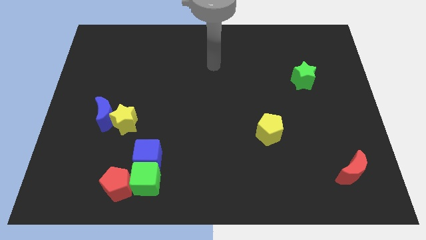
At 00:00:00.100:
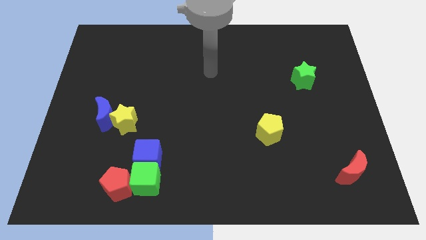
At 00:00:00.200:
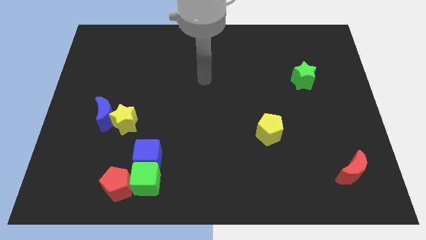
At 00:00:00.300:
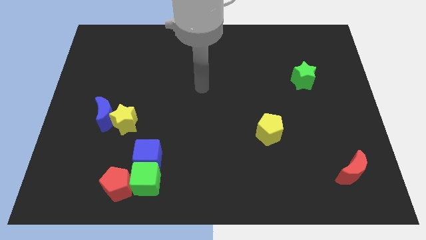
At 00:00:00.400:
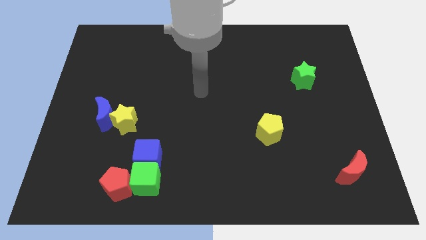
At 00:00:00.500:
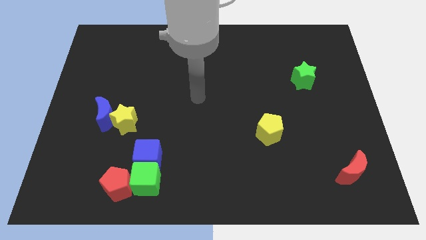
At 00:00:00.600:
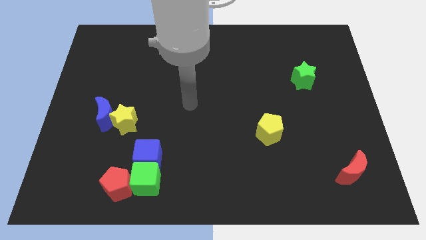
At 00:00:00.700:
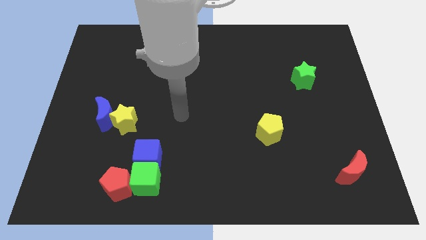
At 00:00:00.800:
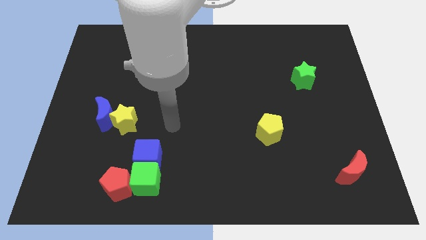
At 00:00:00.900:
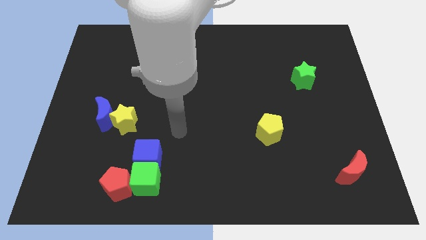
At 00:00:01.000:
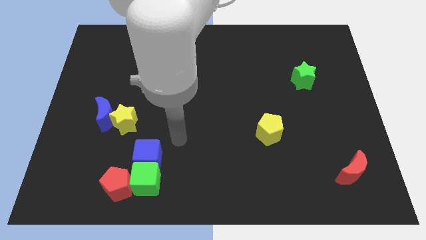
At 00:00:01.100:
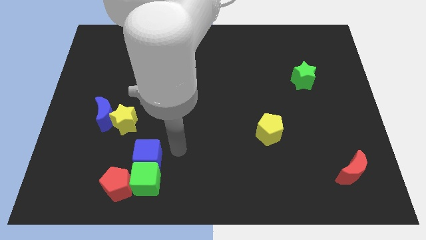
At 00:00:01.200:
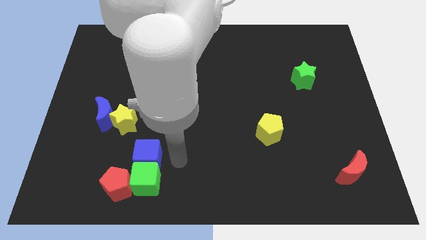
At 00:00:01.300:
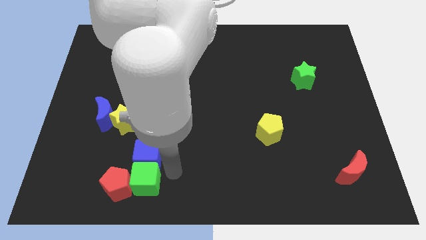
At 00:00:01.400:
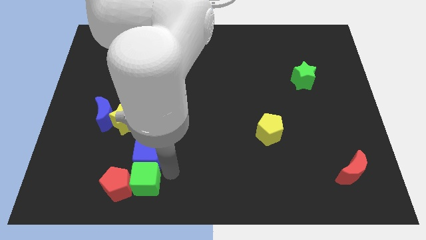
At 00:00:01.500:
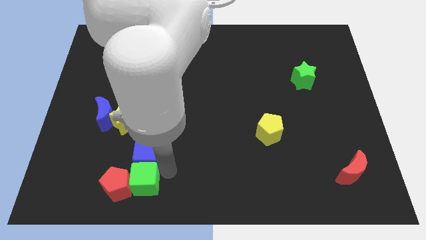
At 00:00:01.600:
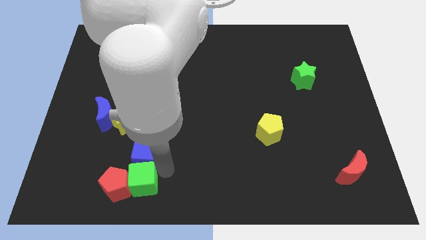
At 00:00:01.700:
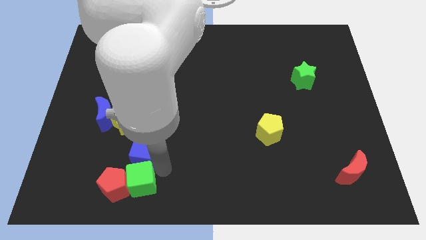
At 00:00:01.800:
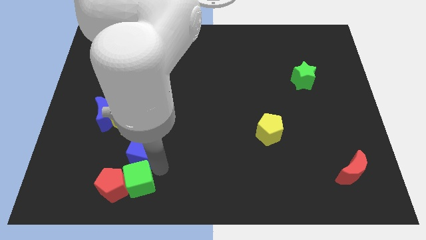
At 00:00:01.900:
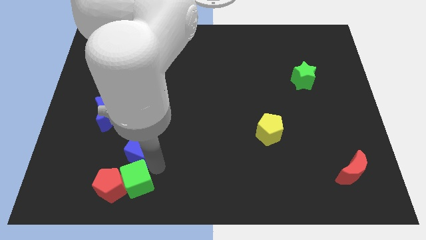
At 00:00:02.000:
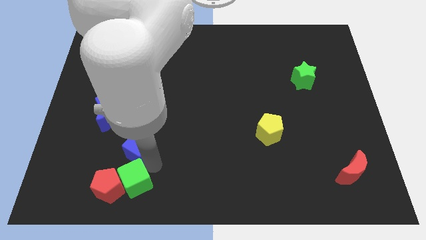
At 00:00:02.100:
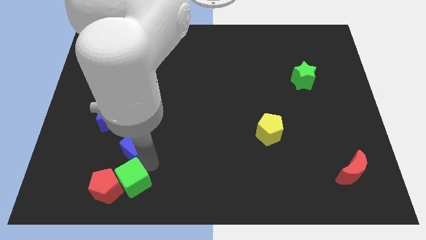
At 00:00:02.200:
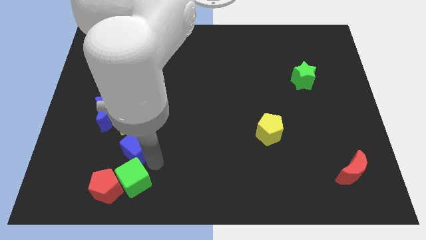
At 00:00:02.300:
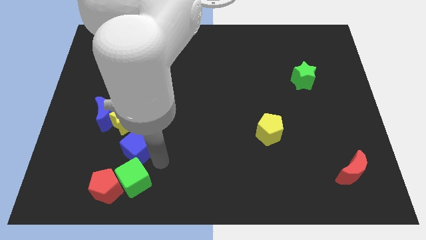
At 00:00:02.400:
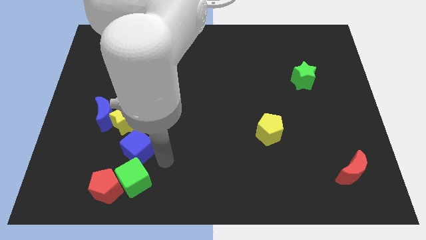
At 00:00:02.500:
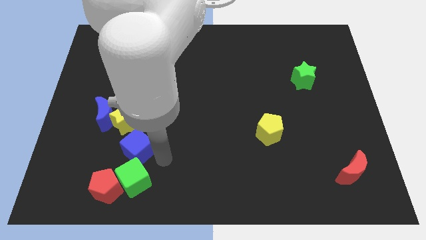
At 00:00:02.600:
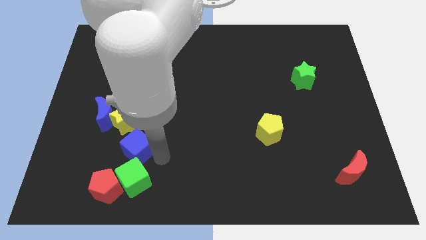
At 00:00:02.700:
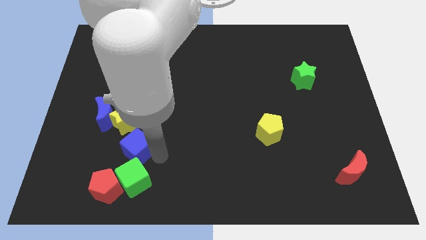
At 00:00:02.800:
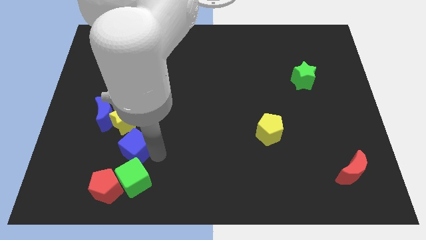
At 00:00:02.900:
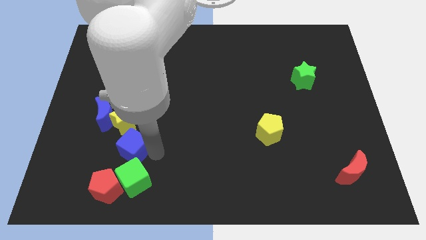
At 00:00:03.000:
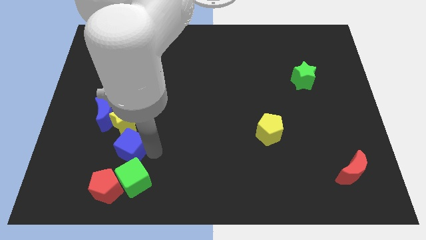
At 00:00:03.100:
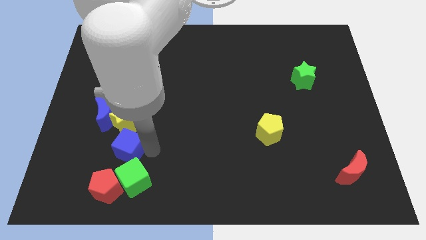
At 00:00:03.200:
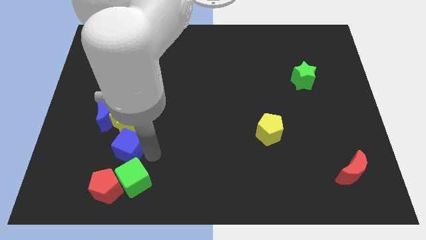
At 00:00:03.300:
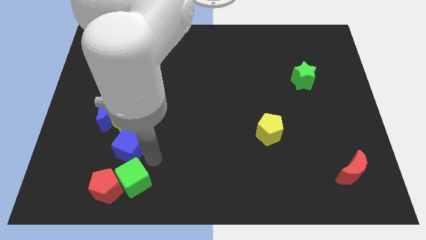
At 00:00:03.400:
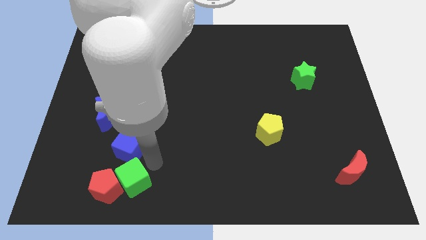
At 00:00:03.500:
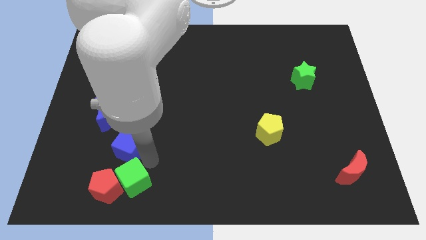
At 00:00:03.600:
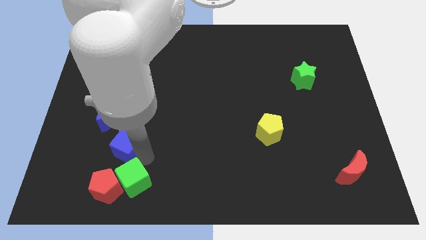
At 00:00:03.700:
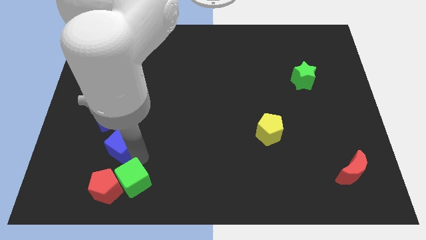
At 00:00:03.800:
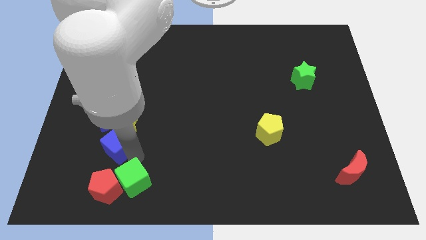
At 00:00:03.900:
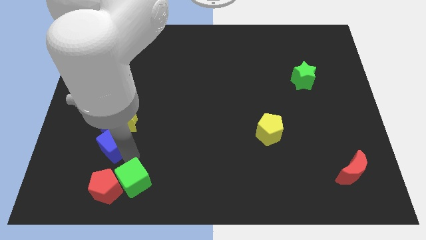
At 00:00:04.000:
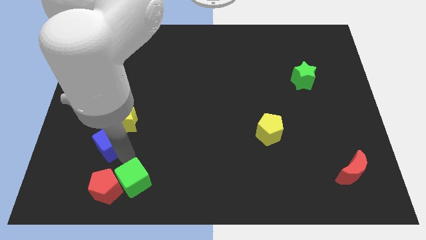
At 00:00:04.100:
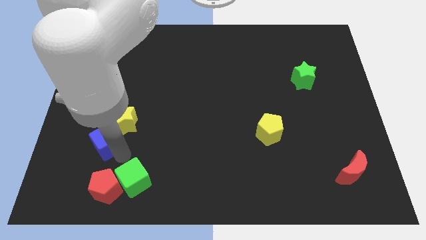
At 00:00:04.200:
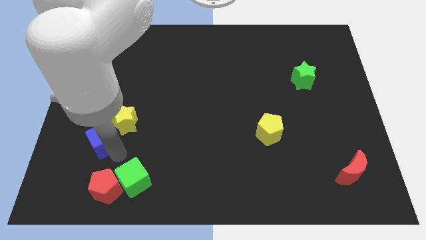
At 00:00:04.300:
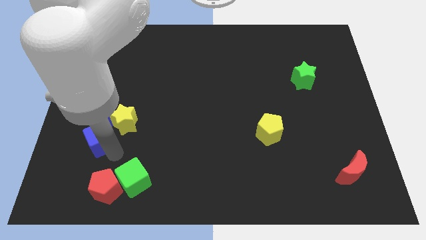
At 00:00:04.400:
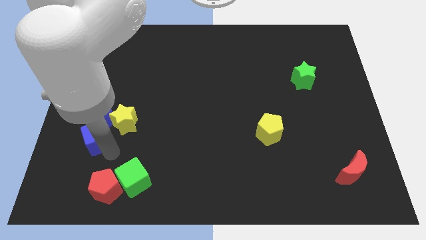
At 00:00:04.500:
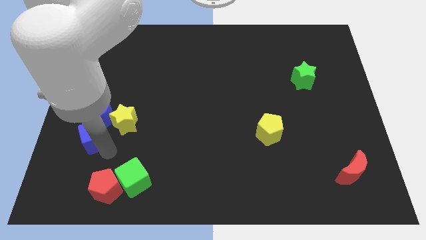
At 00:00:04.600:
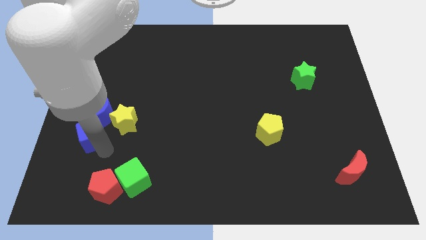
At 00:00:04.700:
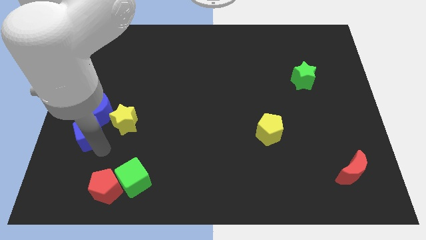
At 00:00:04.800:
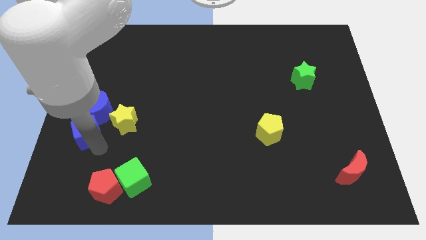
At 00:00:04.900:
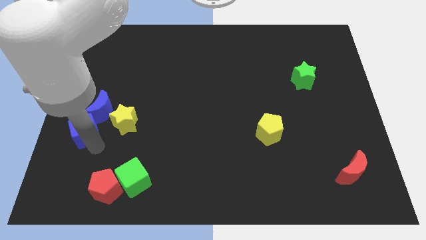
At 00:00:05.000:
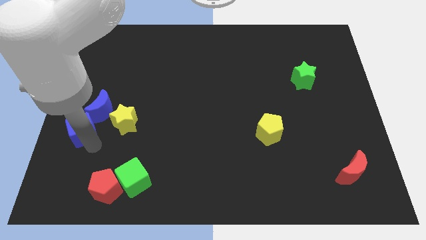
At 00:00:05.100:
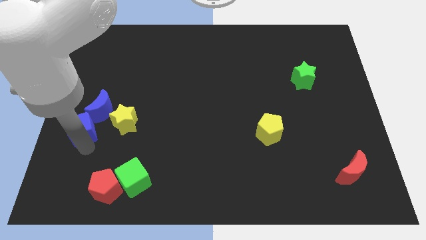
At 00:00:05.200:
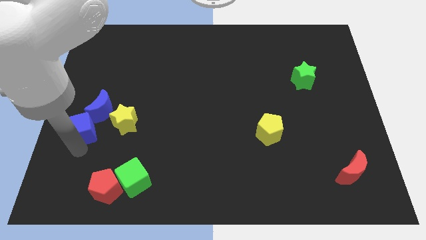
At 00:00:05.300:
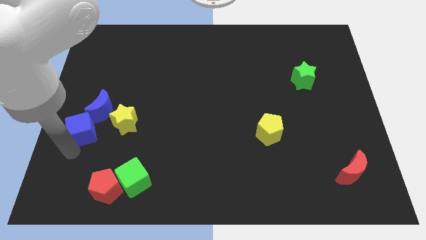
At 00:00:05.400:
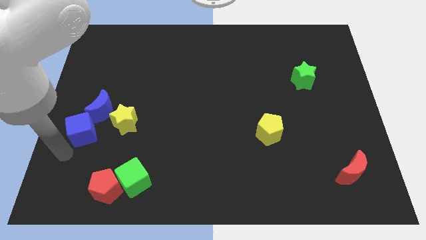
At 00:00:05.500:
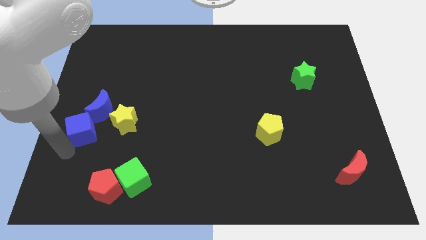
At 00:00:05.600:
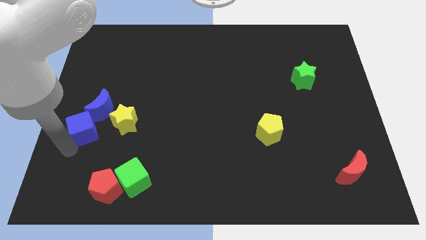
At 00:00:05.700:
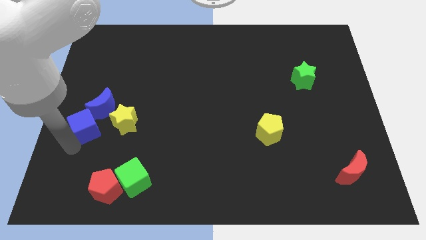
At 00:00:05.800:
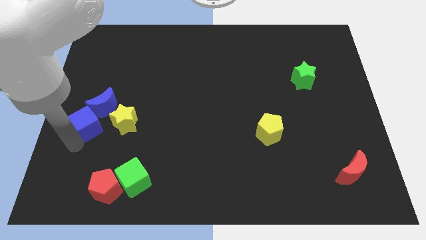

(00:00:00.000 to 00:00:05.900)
slide the blue cube towards the blue moon

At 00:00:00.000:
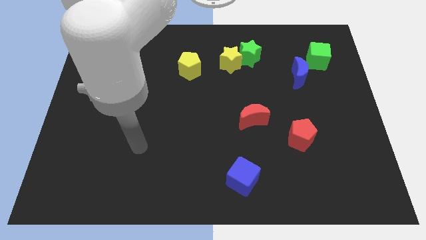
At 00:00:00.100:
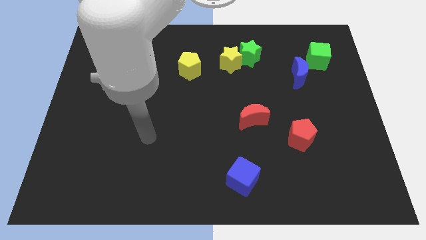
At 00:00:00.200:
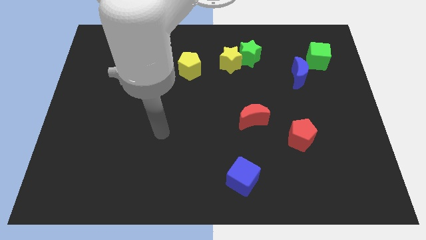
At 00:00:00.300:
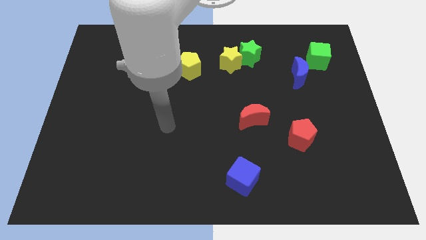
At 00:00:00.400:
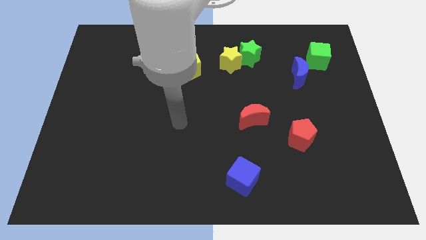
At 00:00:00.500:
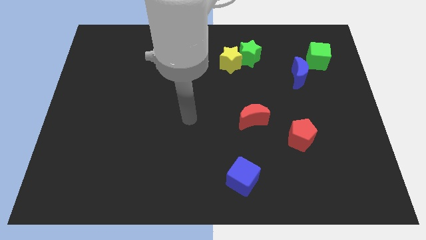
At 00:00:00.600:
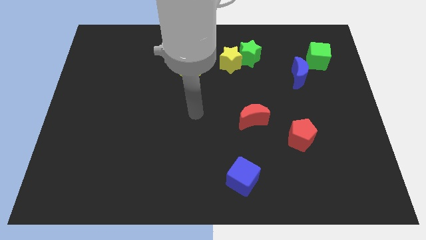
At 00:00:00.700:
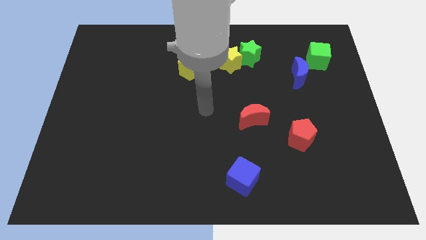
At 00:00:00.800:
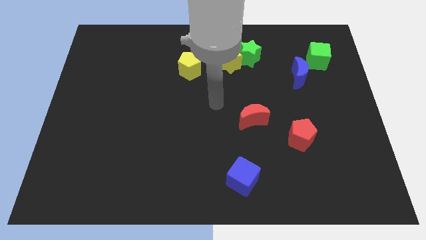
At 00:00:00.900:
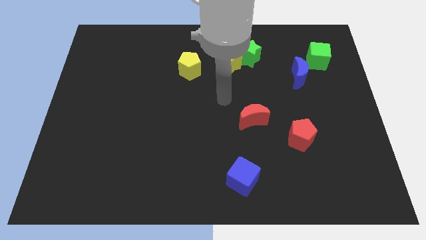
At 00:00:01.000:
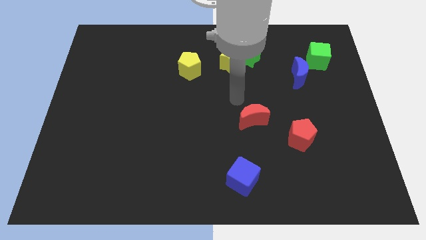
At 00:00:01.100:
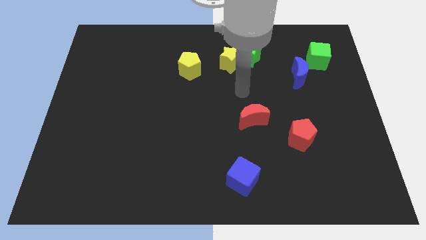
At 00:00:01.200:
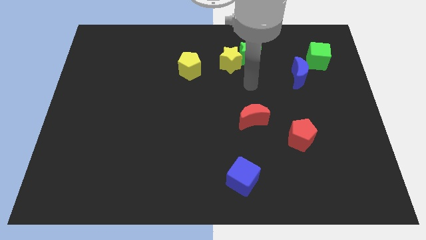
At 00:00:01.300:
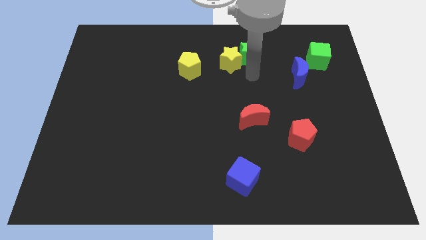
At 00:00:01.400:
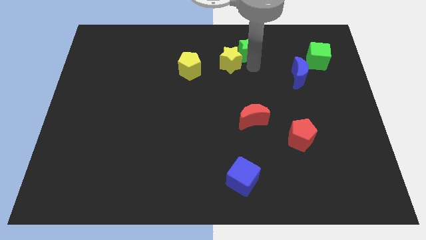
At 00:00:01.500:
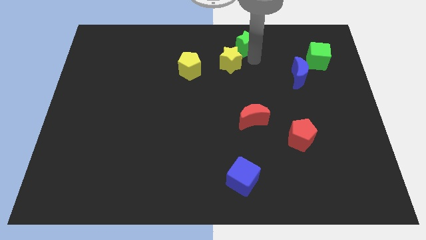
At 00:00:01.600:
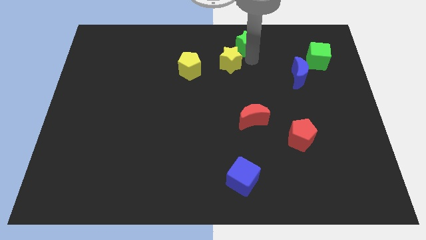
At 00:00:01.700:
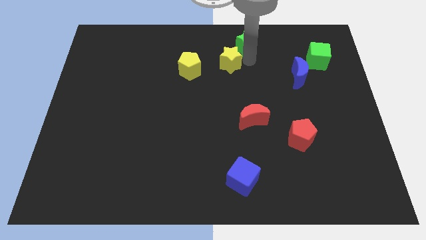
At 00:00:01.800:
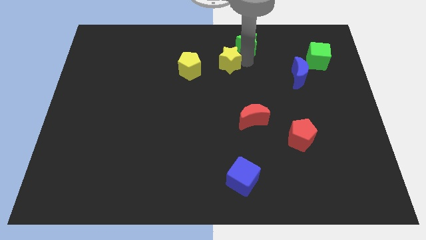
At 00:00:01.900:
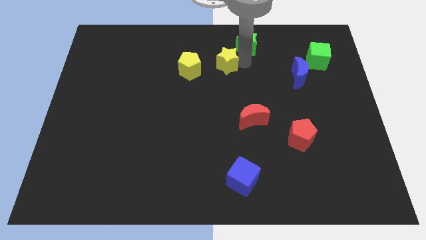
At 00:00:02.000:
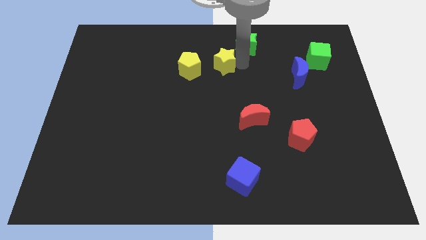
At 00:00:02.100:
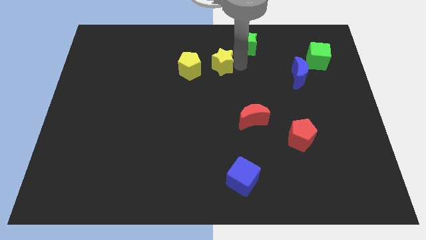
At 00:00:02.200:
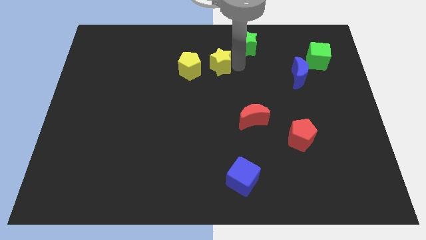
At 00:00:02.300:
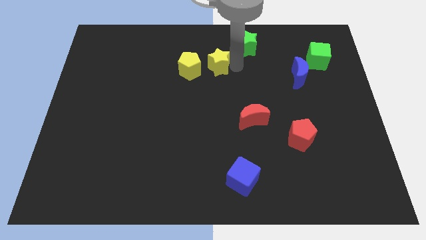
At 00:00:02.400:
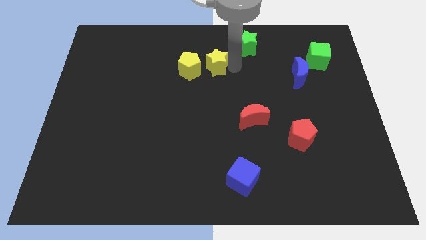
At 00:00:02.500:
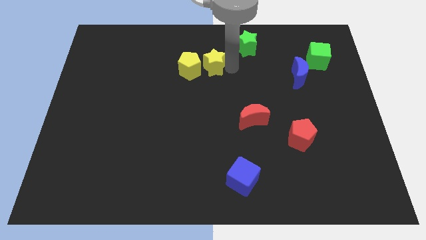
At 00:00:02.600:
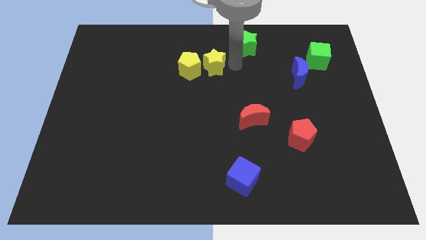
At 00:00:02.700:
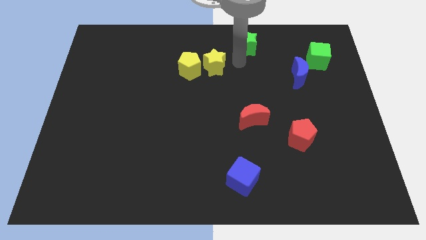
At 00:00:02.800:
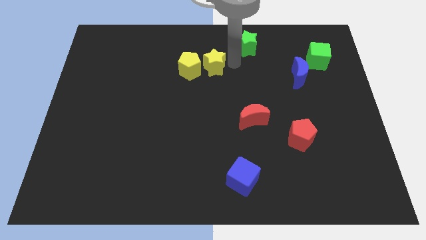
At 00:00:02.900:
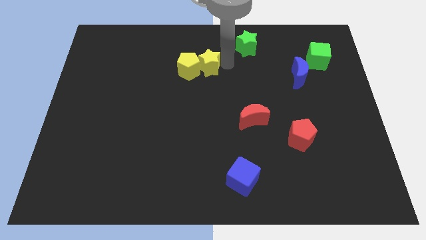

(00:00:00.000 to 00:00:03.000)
put the yellow star towards the yellow pentagon
